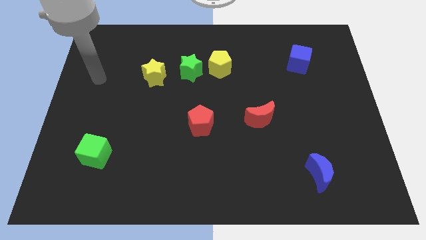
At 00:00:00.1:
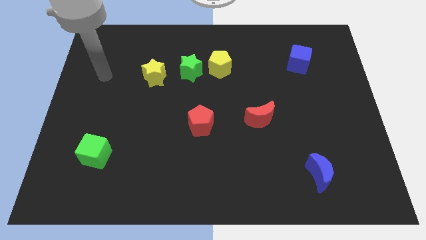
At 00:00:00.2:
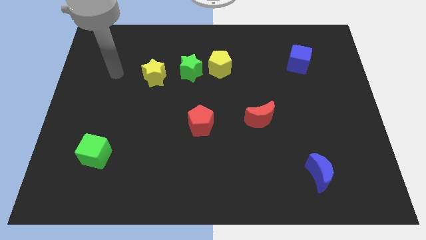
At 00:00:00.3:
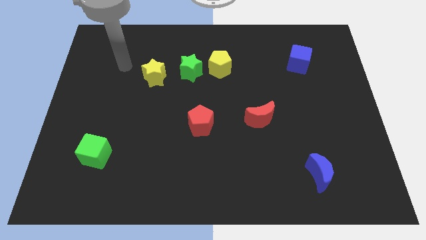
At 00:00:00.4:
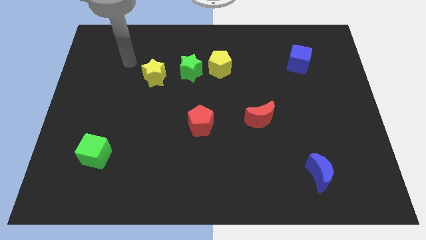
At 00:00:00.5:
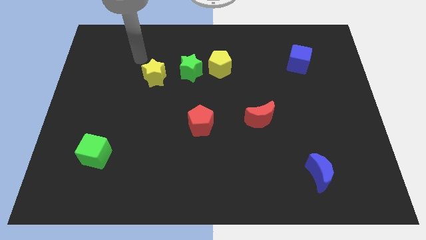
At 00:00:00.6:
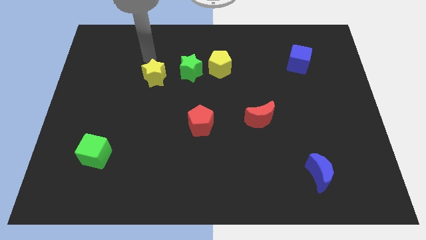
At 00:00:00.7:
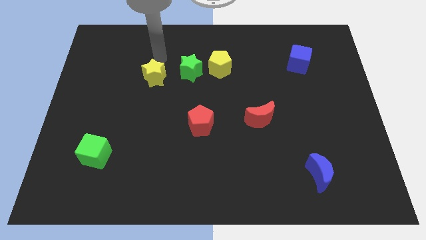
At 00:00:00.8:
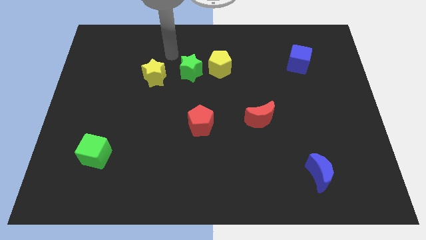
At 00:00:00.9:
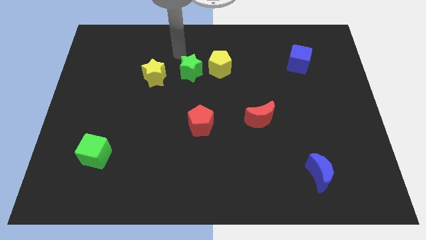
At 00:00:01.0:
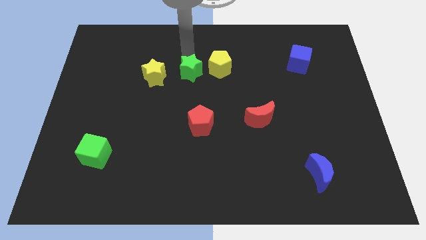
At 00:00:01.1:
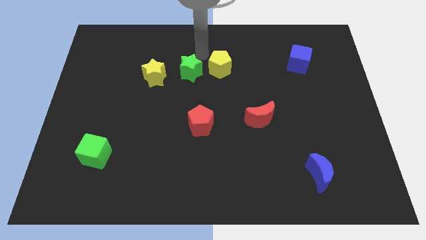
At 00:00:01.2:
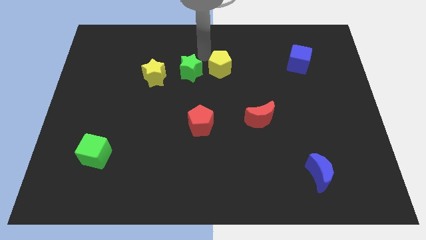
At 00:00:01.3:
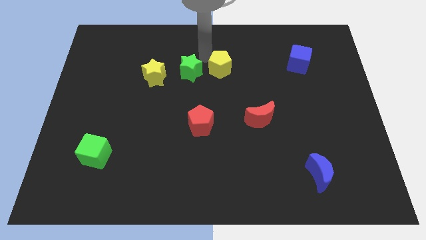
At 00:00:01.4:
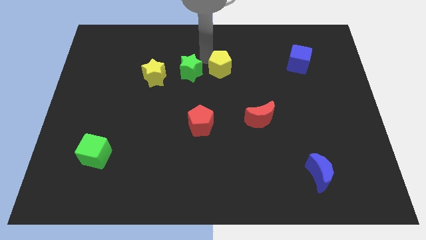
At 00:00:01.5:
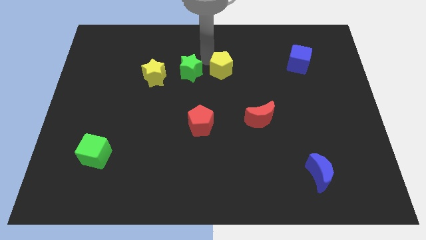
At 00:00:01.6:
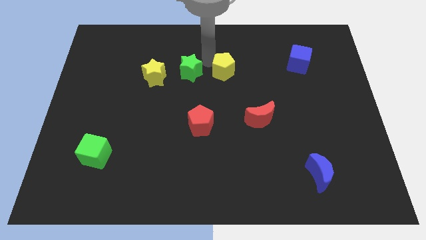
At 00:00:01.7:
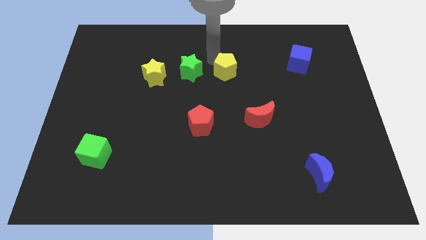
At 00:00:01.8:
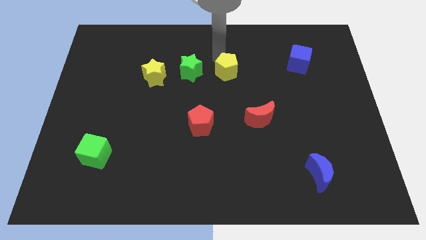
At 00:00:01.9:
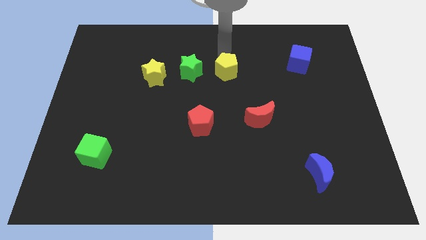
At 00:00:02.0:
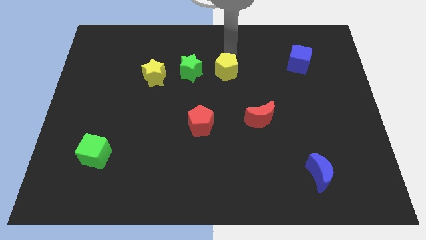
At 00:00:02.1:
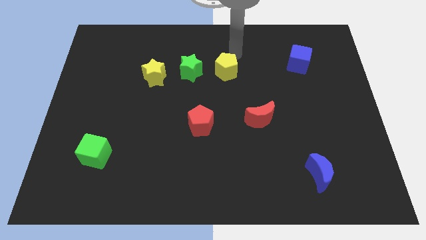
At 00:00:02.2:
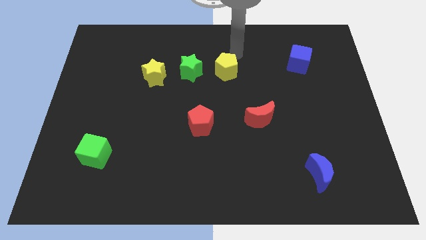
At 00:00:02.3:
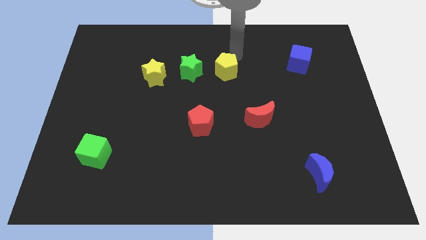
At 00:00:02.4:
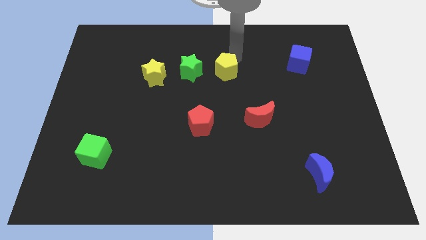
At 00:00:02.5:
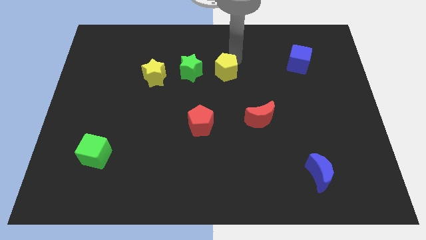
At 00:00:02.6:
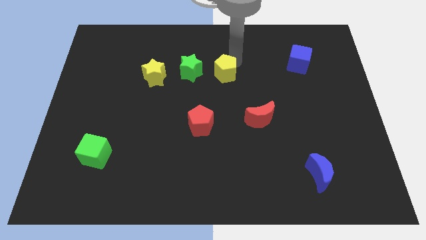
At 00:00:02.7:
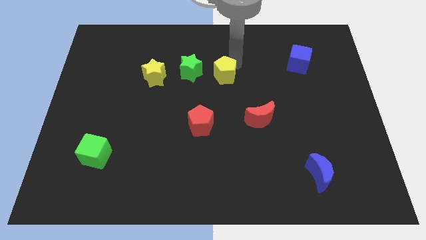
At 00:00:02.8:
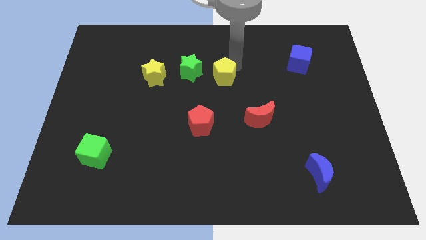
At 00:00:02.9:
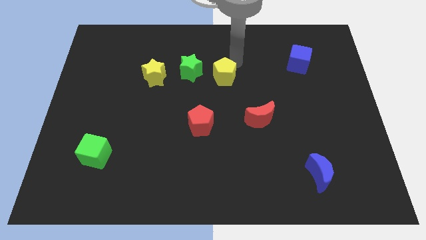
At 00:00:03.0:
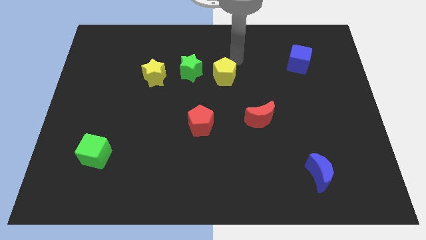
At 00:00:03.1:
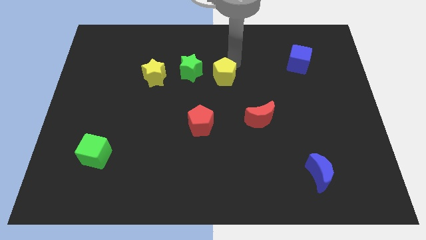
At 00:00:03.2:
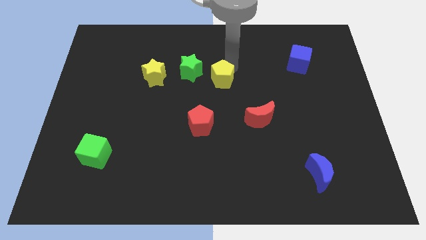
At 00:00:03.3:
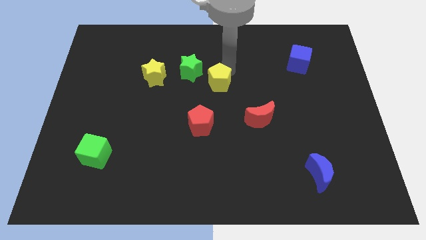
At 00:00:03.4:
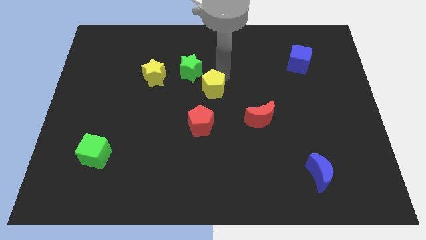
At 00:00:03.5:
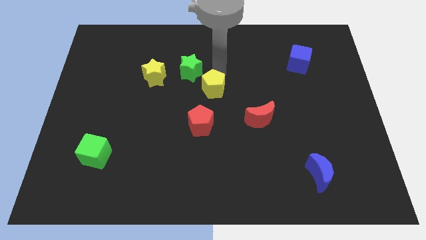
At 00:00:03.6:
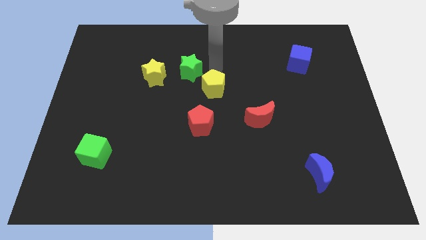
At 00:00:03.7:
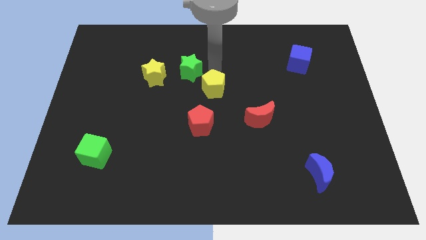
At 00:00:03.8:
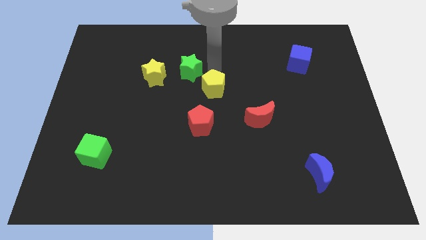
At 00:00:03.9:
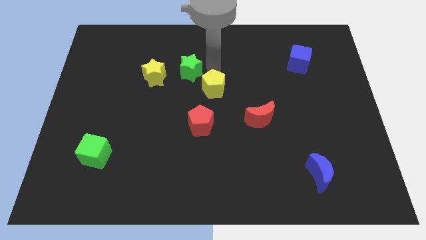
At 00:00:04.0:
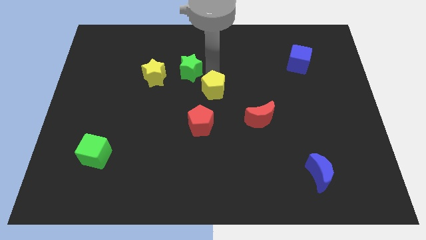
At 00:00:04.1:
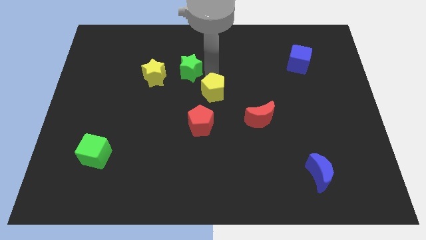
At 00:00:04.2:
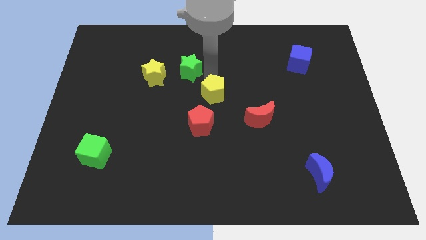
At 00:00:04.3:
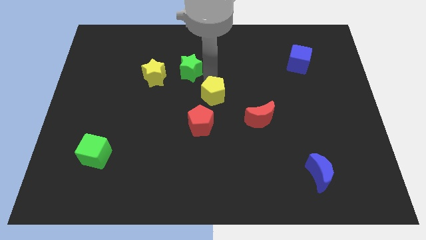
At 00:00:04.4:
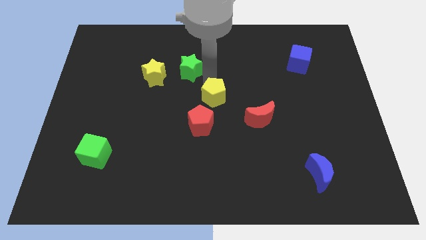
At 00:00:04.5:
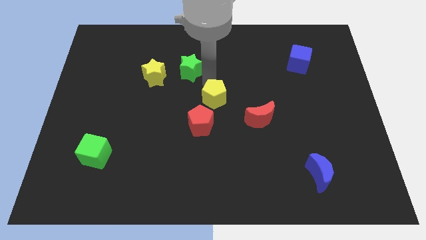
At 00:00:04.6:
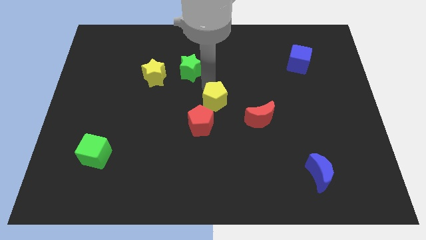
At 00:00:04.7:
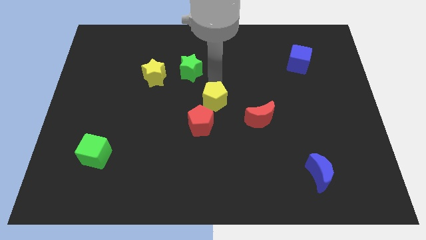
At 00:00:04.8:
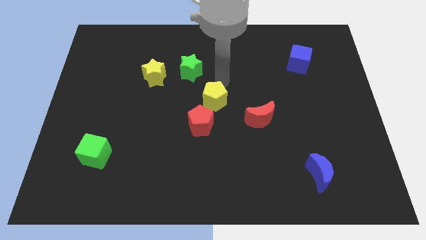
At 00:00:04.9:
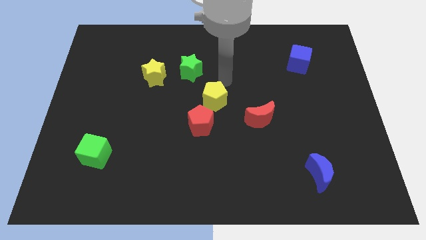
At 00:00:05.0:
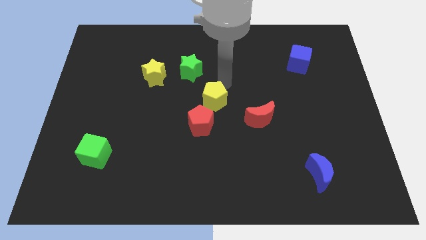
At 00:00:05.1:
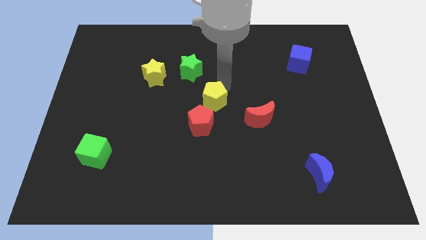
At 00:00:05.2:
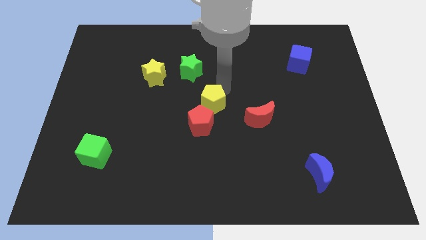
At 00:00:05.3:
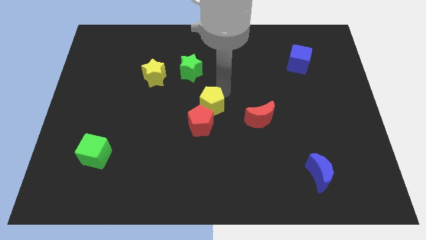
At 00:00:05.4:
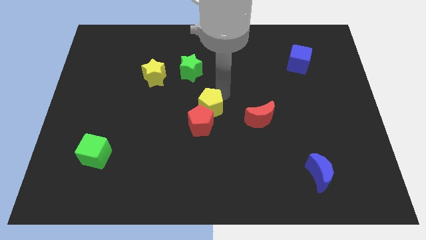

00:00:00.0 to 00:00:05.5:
push the yellow pentagon to the red pentagon
